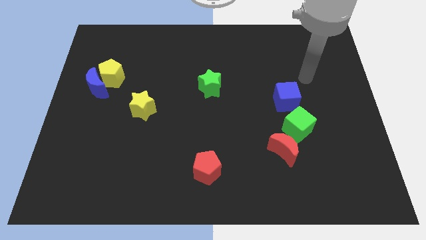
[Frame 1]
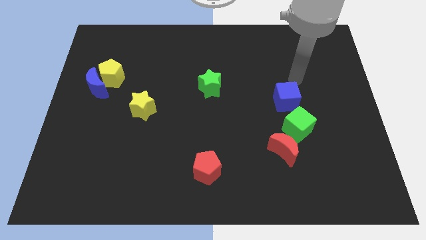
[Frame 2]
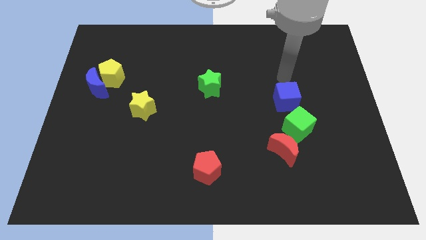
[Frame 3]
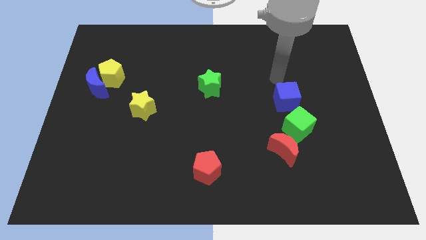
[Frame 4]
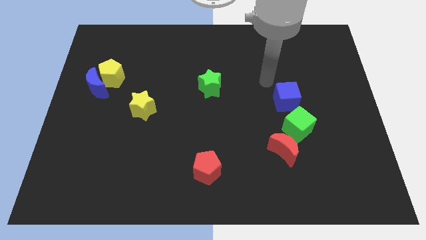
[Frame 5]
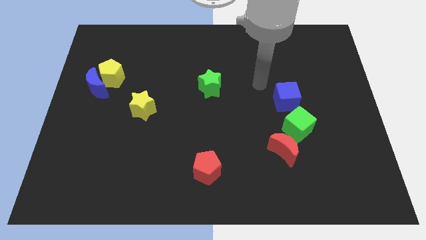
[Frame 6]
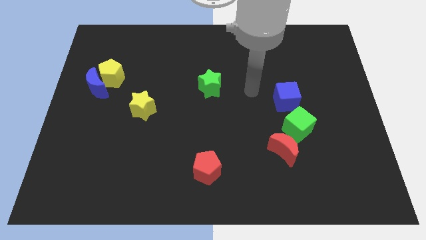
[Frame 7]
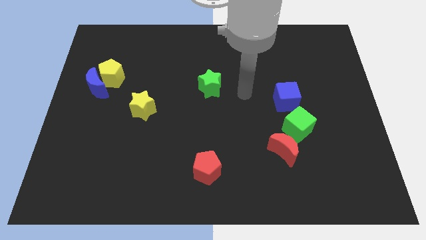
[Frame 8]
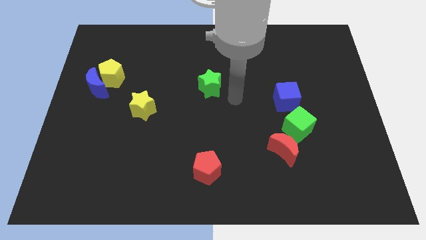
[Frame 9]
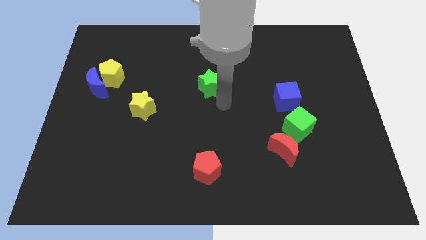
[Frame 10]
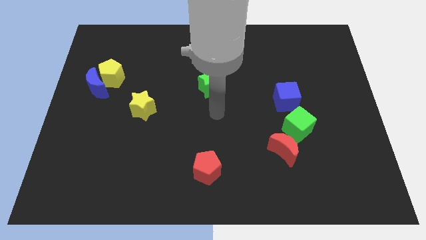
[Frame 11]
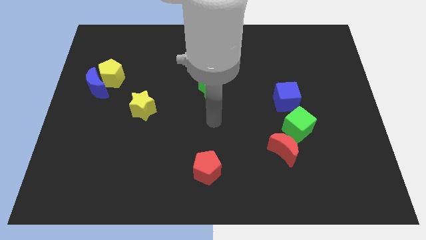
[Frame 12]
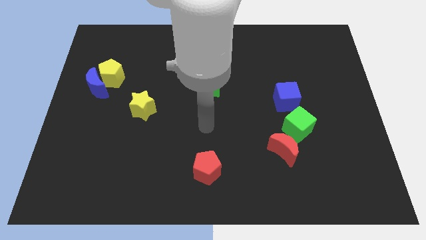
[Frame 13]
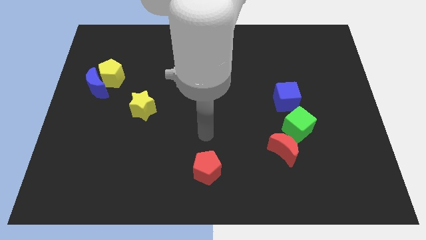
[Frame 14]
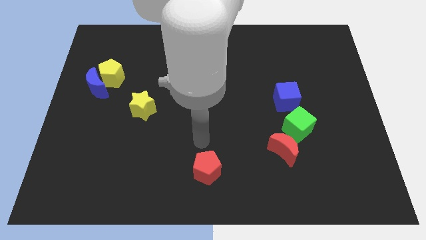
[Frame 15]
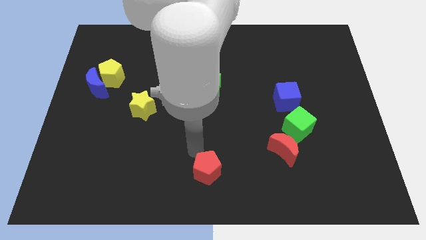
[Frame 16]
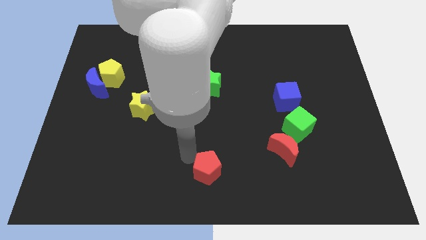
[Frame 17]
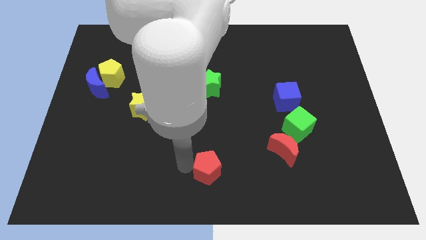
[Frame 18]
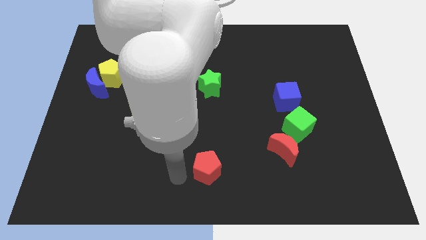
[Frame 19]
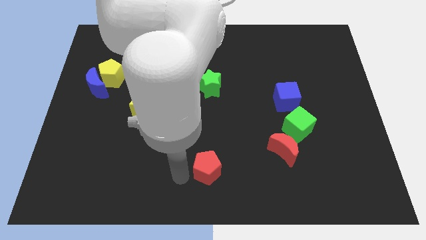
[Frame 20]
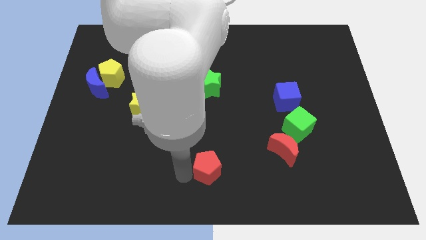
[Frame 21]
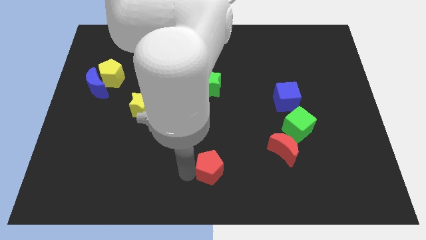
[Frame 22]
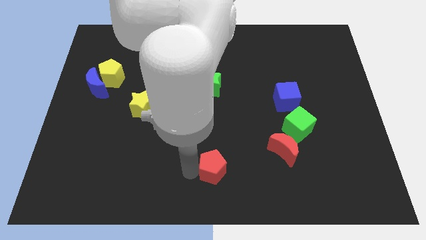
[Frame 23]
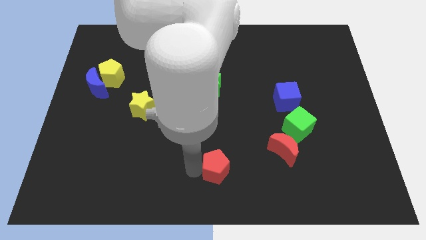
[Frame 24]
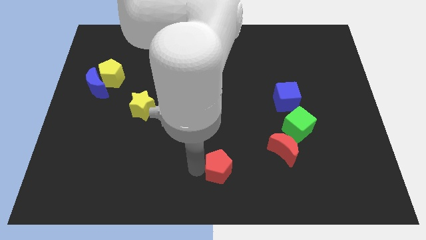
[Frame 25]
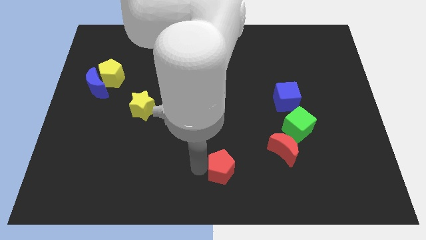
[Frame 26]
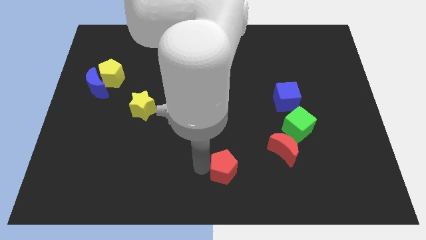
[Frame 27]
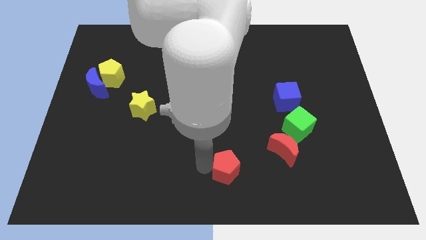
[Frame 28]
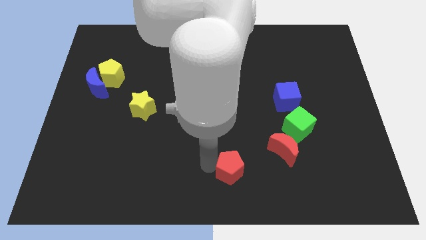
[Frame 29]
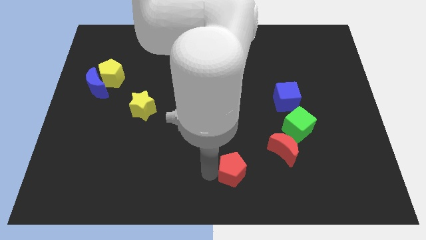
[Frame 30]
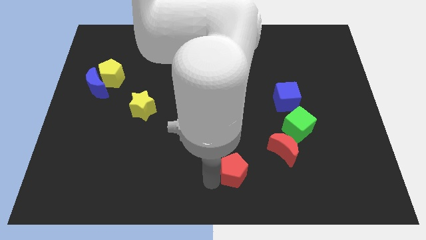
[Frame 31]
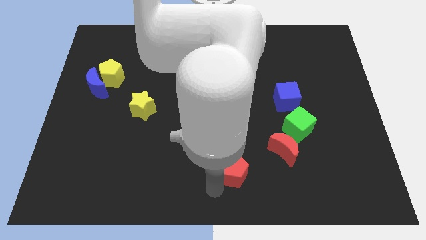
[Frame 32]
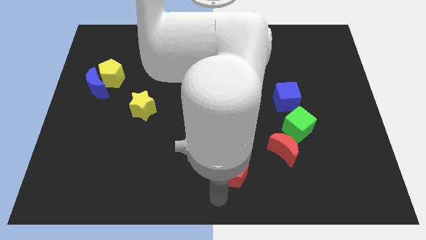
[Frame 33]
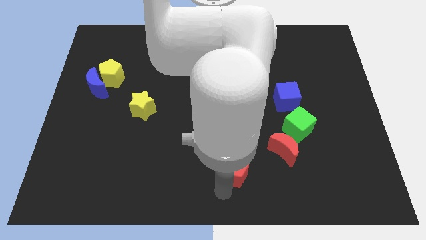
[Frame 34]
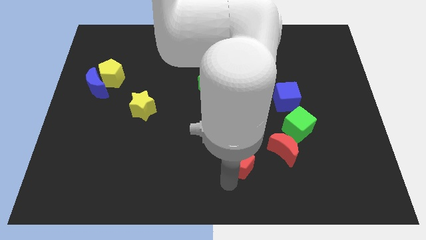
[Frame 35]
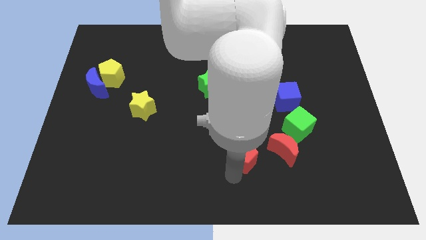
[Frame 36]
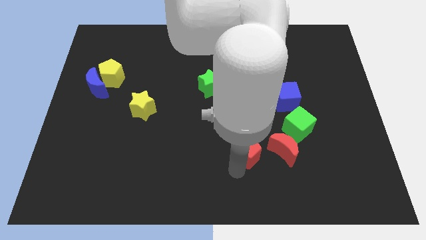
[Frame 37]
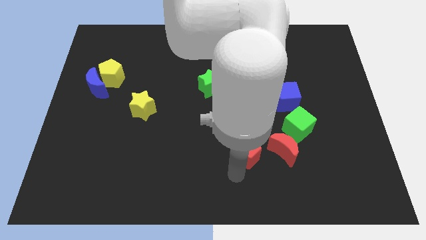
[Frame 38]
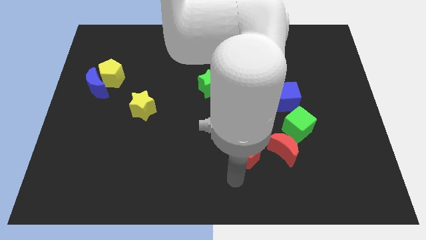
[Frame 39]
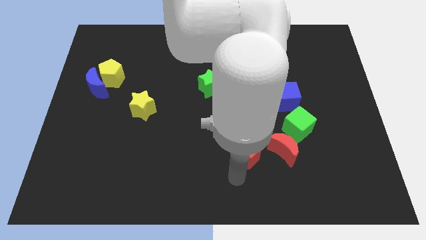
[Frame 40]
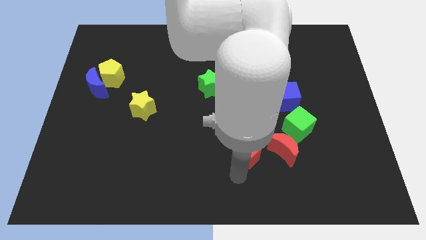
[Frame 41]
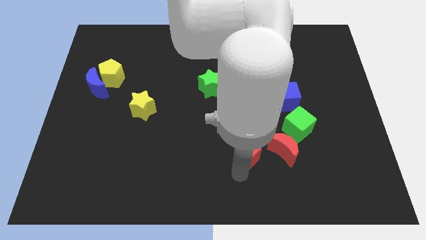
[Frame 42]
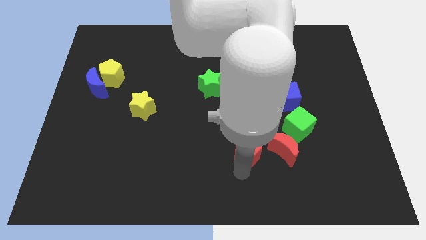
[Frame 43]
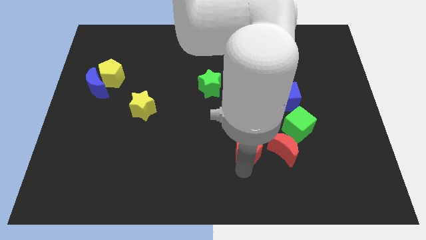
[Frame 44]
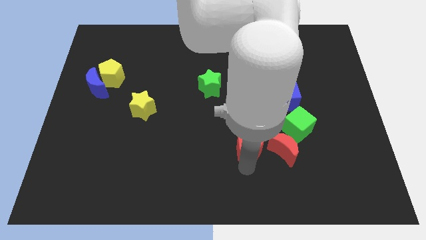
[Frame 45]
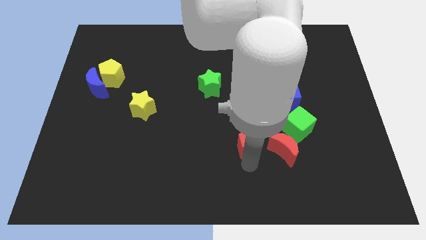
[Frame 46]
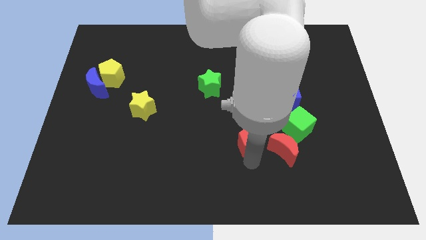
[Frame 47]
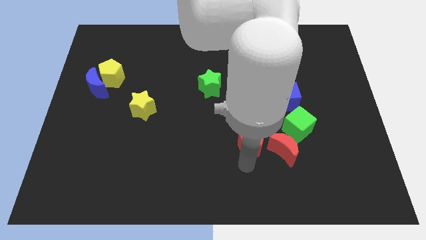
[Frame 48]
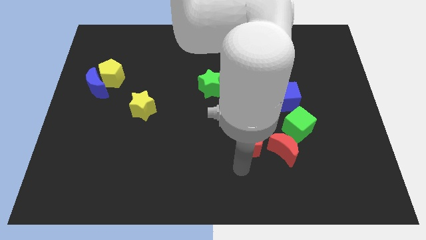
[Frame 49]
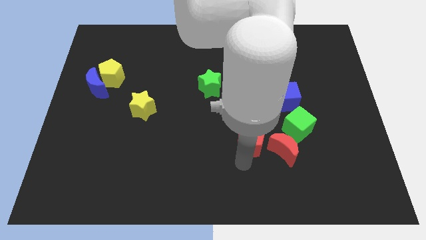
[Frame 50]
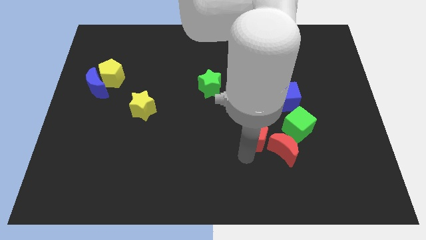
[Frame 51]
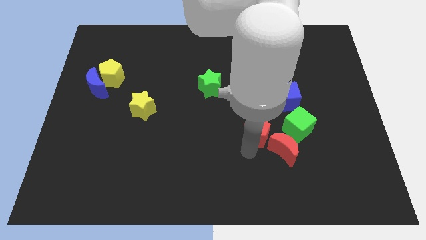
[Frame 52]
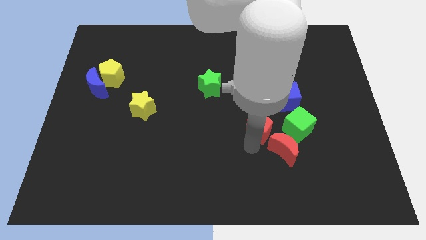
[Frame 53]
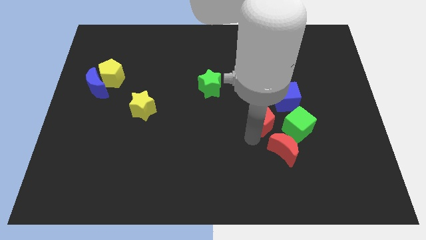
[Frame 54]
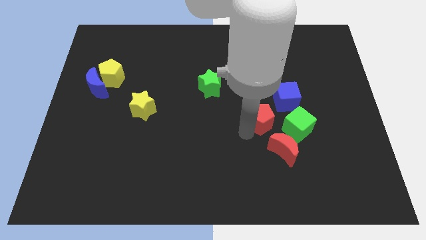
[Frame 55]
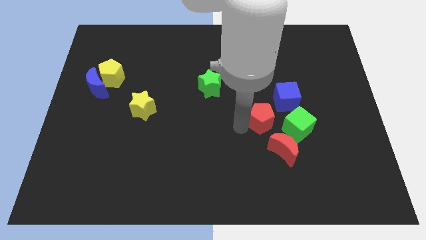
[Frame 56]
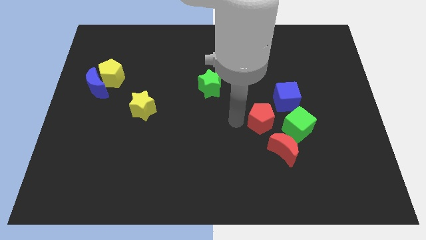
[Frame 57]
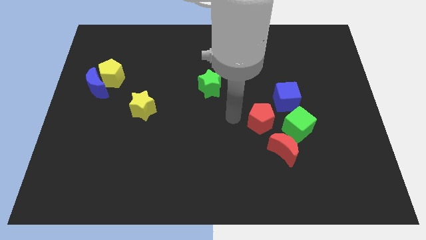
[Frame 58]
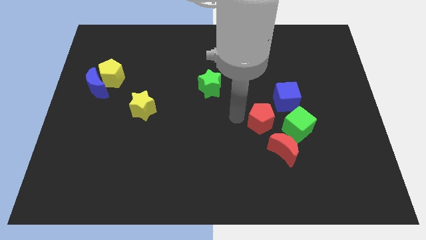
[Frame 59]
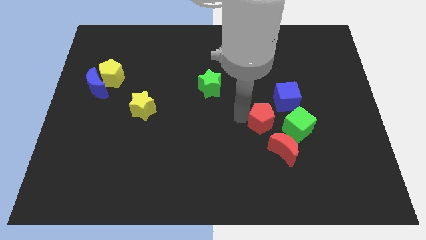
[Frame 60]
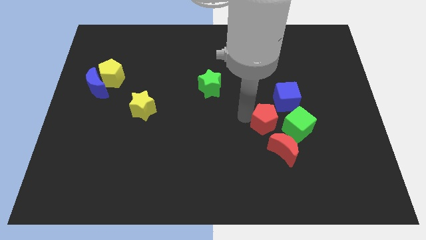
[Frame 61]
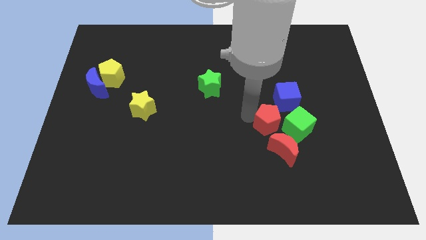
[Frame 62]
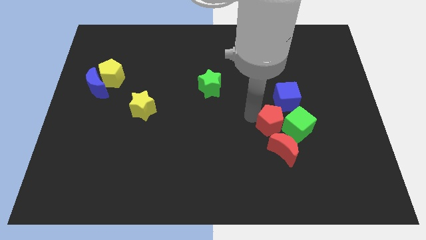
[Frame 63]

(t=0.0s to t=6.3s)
slide the red pentagon to the green cube
